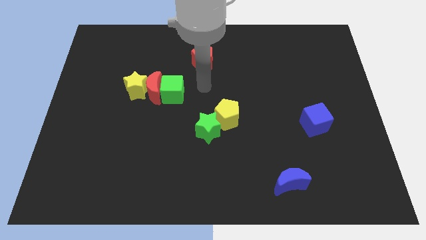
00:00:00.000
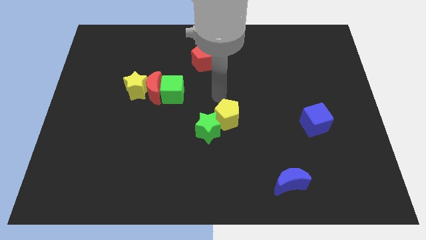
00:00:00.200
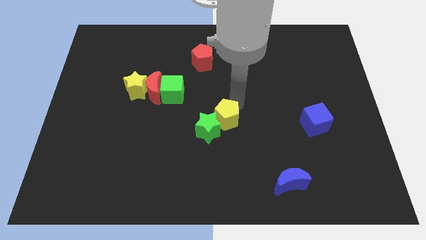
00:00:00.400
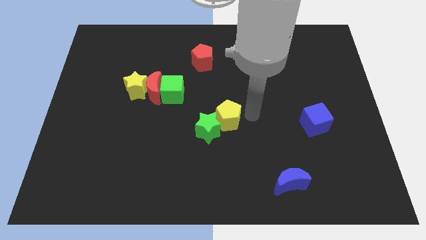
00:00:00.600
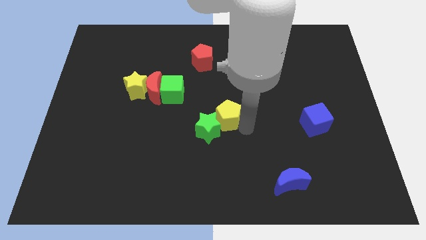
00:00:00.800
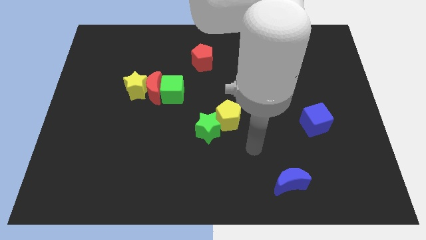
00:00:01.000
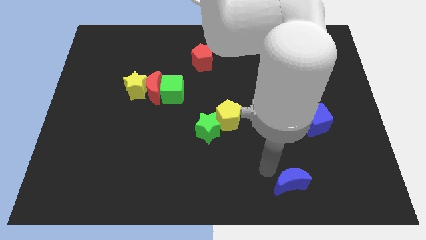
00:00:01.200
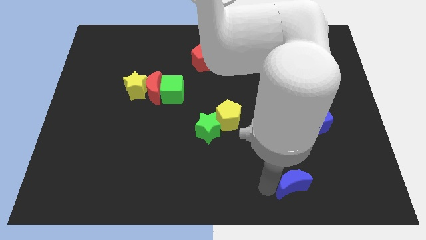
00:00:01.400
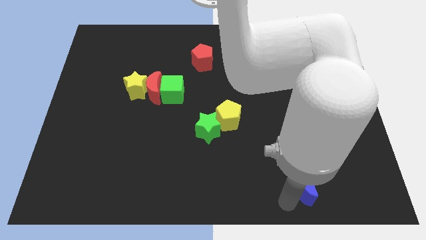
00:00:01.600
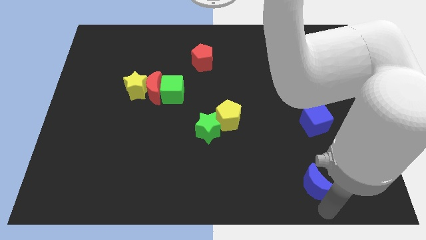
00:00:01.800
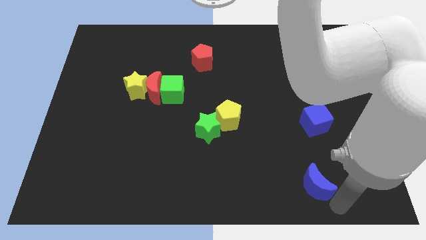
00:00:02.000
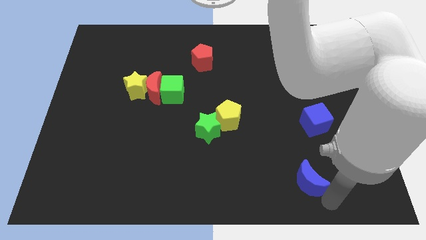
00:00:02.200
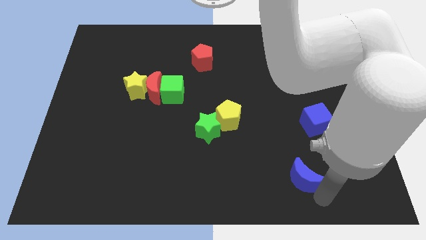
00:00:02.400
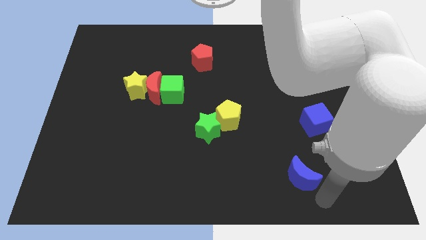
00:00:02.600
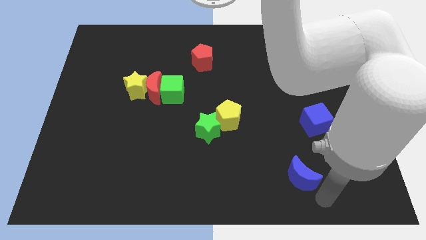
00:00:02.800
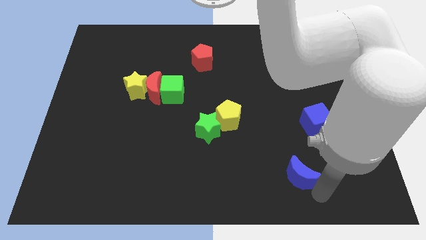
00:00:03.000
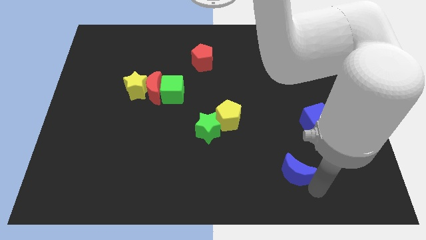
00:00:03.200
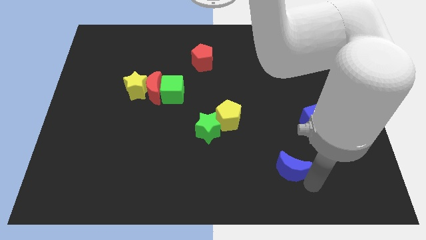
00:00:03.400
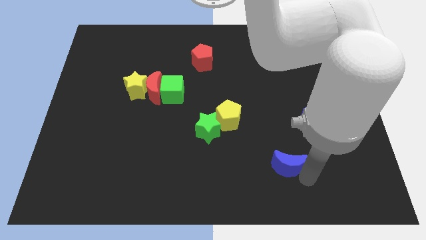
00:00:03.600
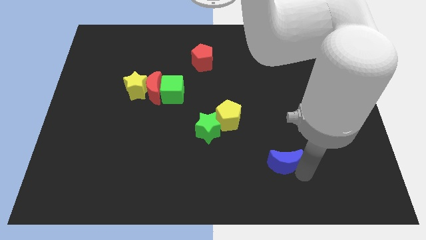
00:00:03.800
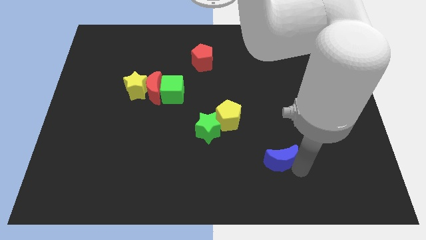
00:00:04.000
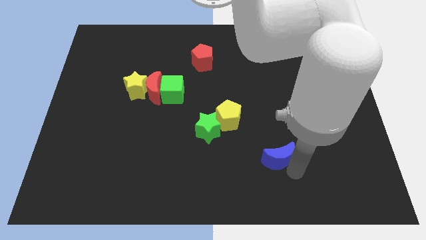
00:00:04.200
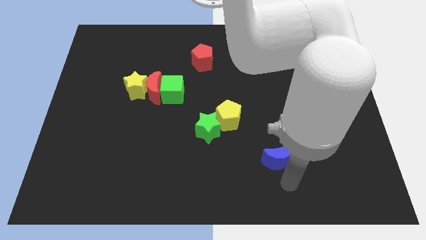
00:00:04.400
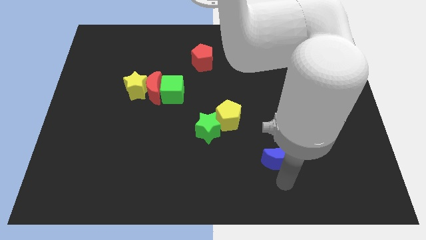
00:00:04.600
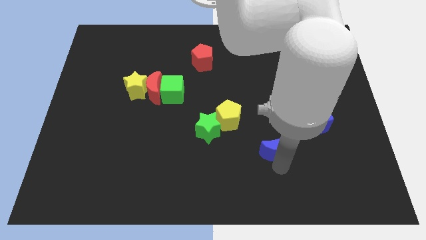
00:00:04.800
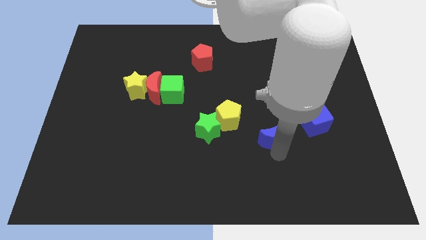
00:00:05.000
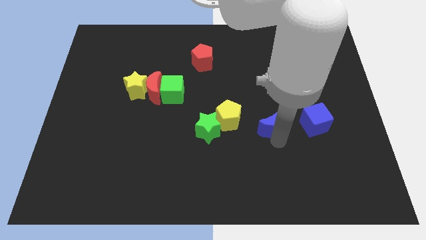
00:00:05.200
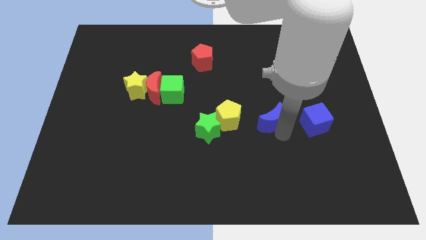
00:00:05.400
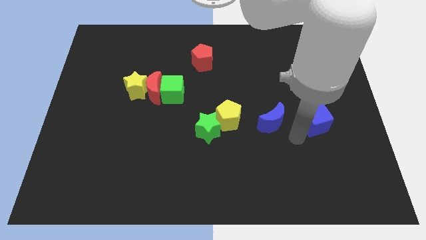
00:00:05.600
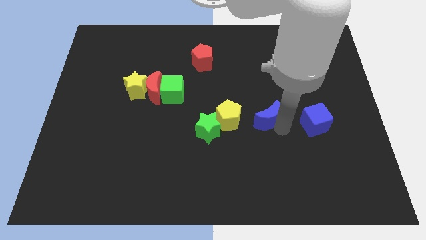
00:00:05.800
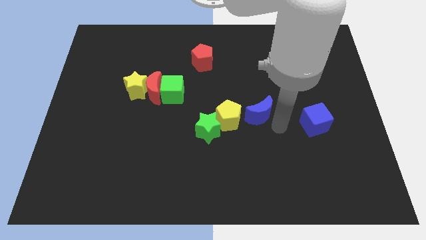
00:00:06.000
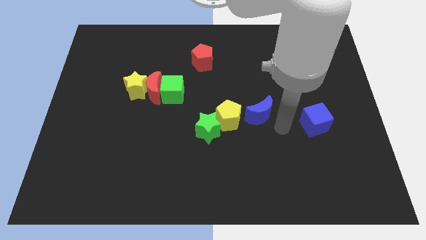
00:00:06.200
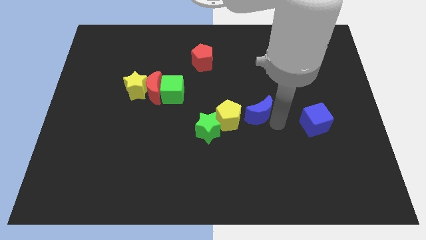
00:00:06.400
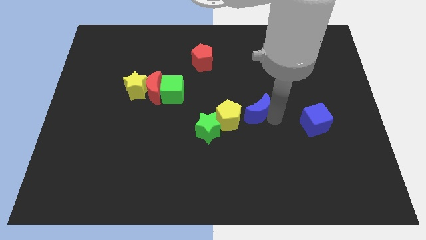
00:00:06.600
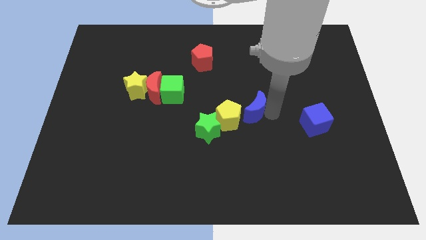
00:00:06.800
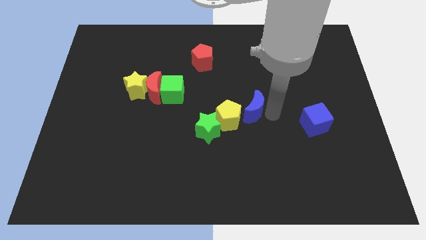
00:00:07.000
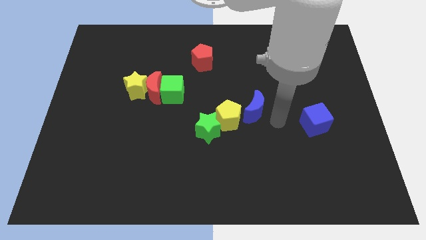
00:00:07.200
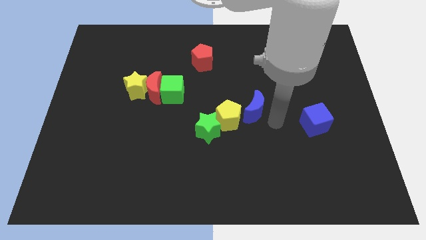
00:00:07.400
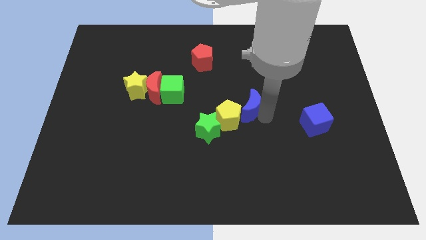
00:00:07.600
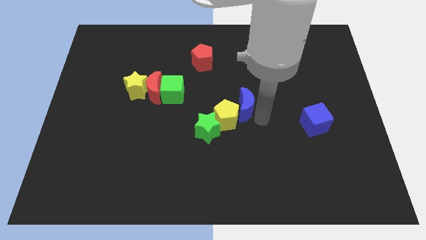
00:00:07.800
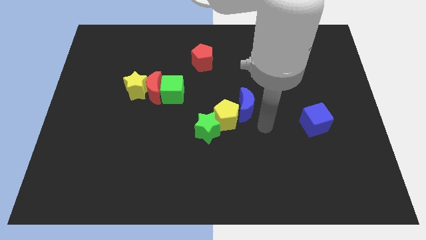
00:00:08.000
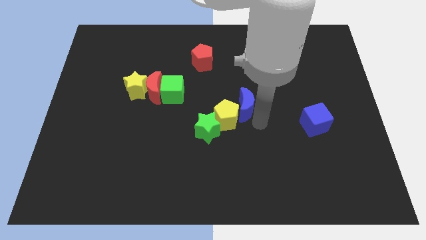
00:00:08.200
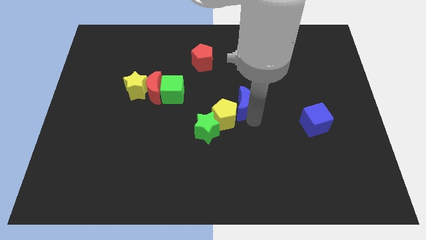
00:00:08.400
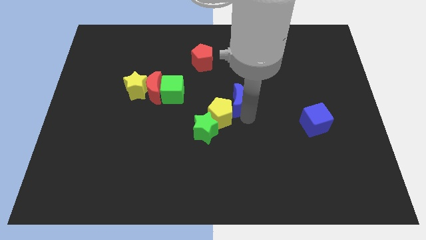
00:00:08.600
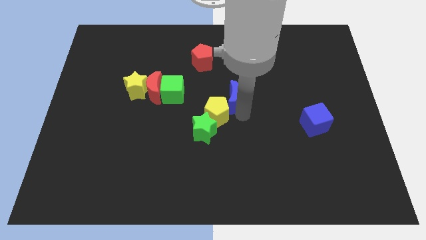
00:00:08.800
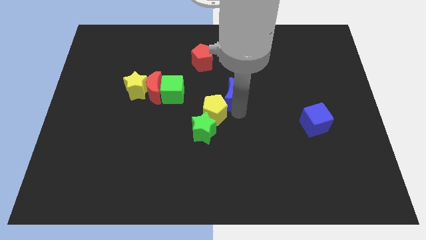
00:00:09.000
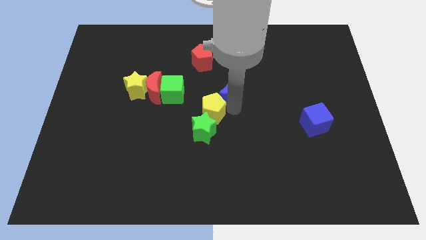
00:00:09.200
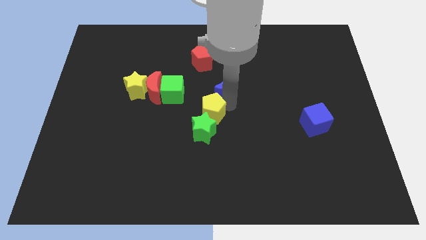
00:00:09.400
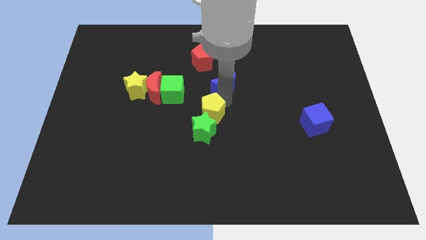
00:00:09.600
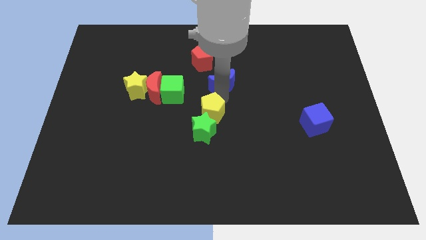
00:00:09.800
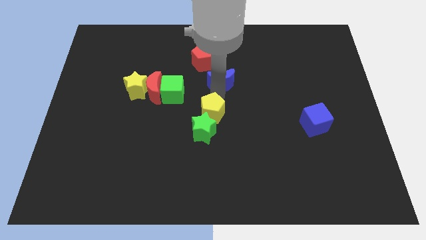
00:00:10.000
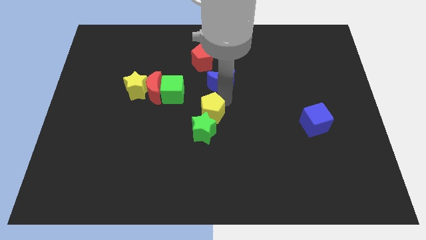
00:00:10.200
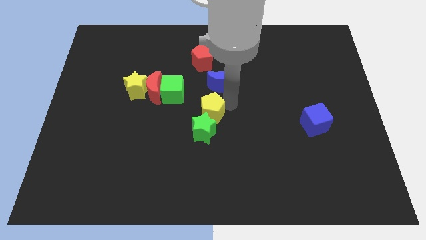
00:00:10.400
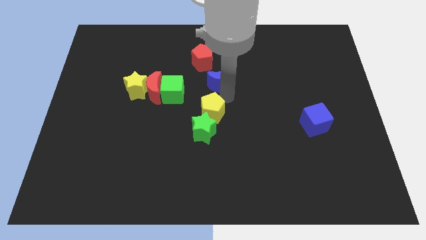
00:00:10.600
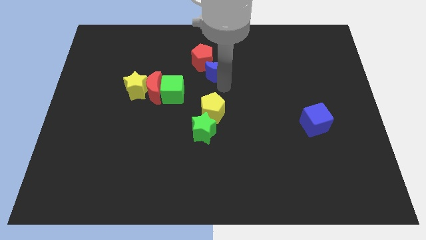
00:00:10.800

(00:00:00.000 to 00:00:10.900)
put the blue moon towards the red pentagon

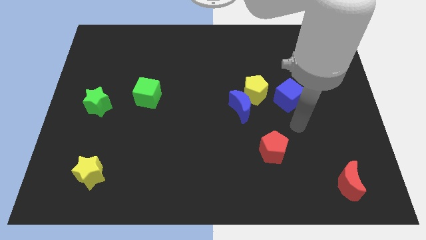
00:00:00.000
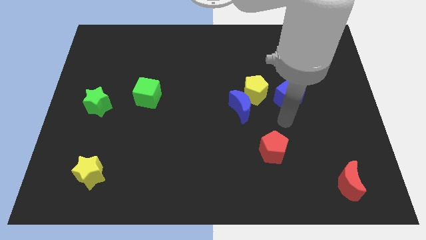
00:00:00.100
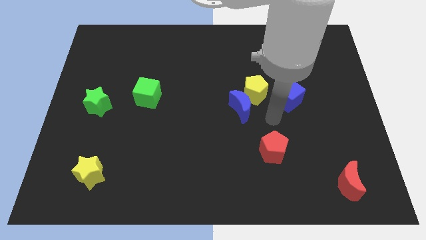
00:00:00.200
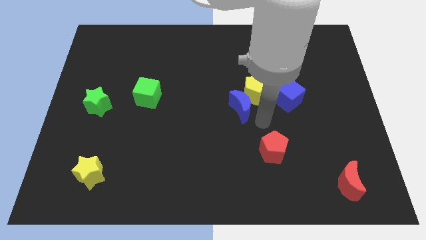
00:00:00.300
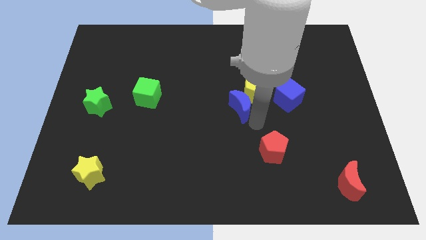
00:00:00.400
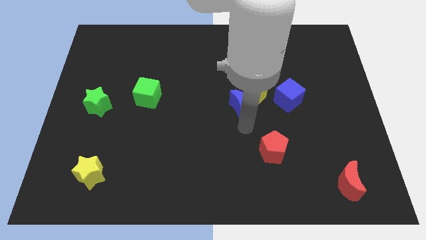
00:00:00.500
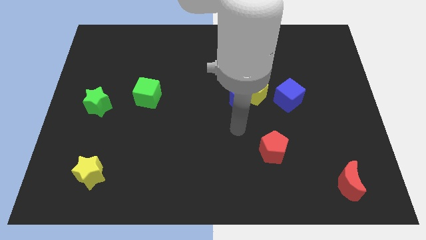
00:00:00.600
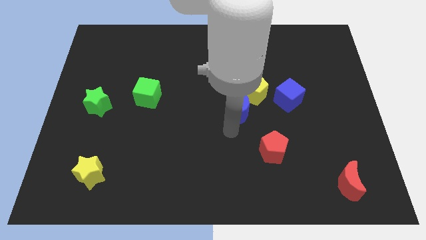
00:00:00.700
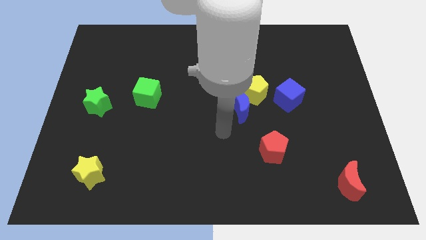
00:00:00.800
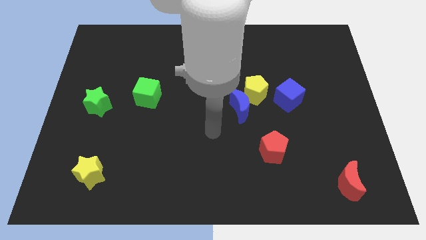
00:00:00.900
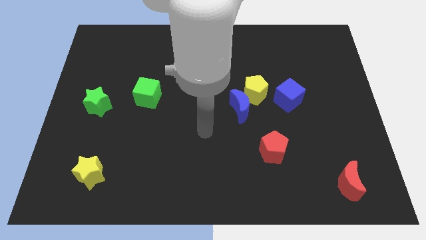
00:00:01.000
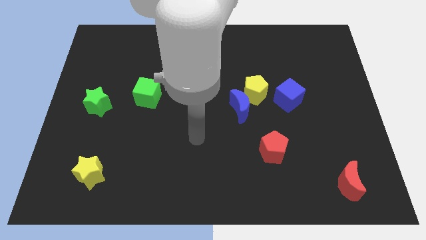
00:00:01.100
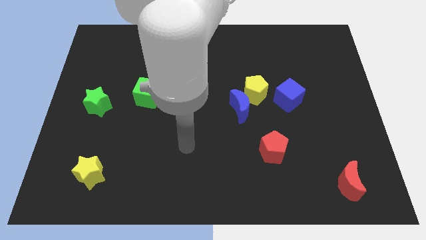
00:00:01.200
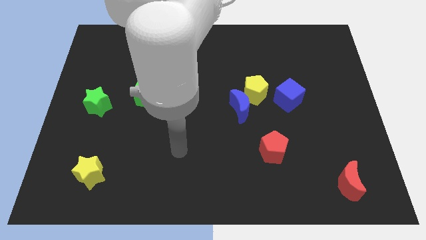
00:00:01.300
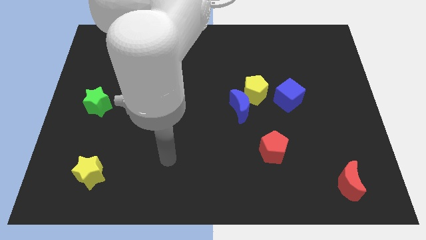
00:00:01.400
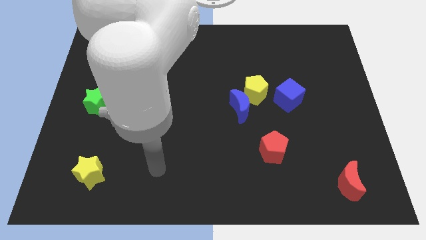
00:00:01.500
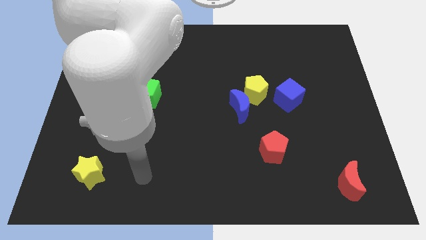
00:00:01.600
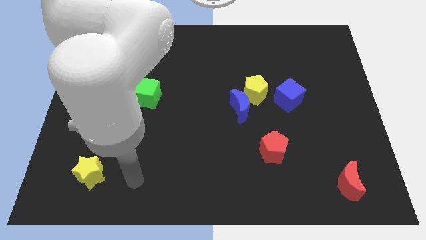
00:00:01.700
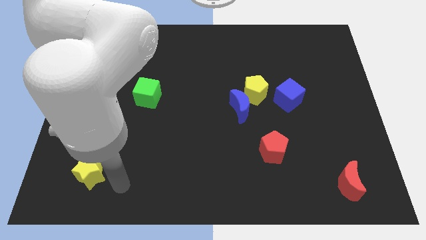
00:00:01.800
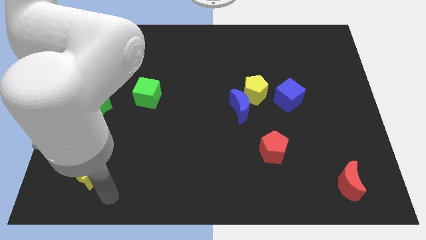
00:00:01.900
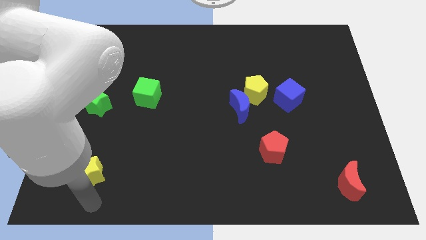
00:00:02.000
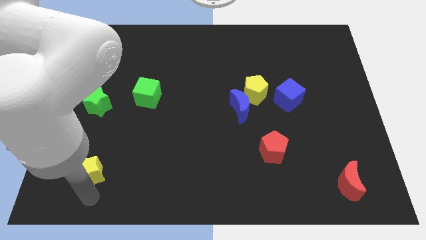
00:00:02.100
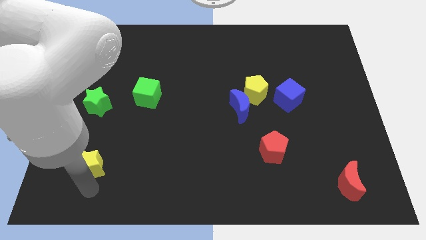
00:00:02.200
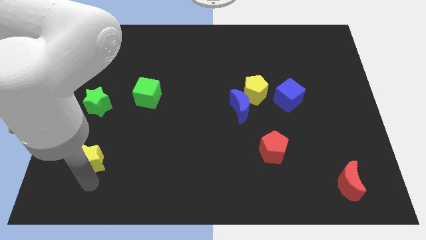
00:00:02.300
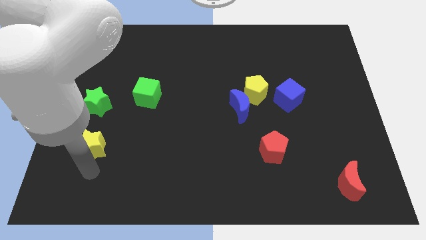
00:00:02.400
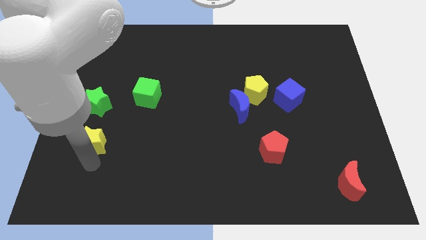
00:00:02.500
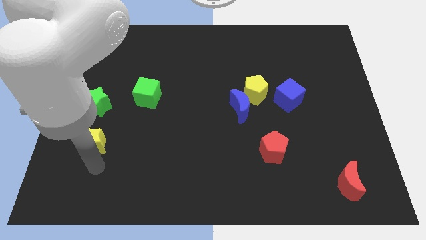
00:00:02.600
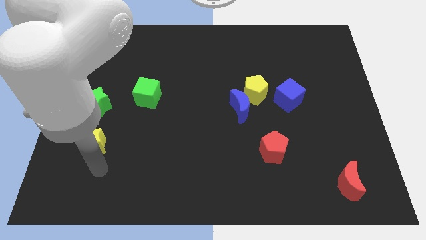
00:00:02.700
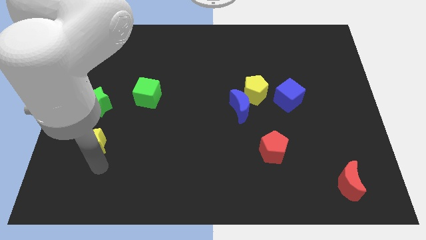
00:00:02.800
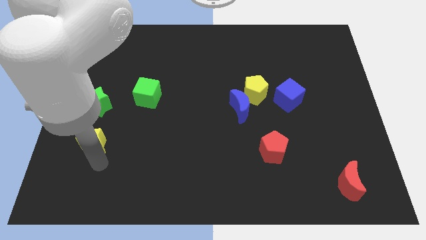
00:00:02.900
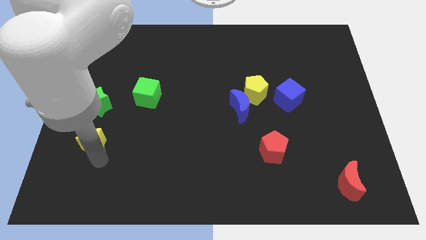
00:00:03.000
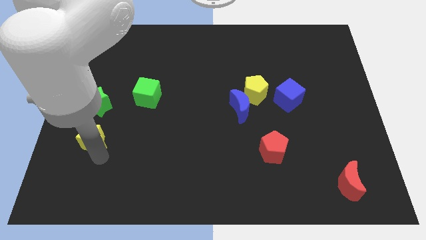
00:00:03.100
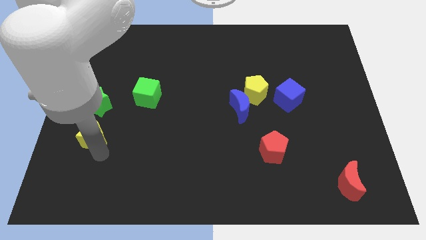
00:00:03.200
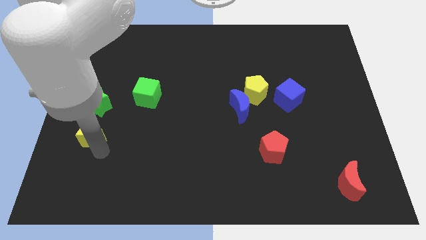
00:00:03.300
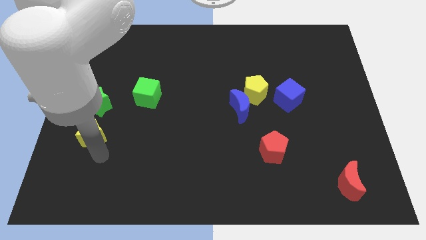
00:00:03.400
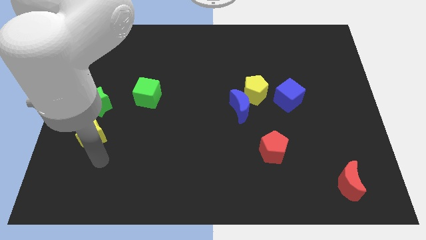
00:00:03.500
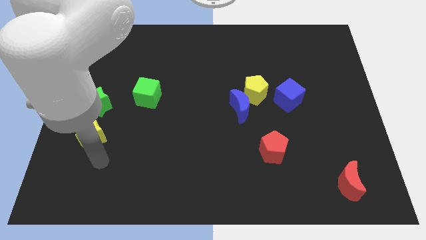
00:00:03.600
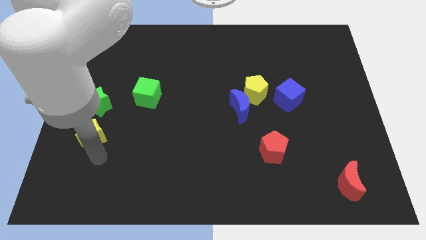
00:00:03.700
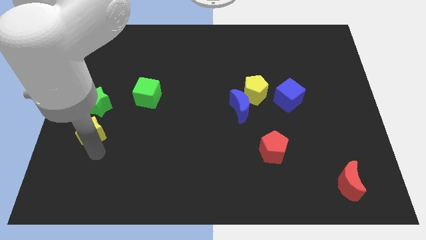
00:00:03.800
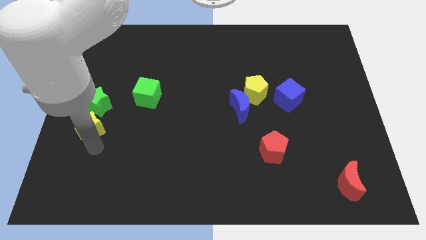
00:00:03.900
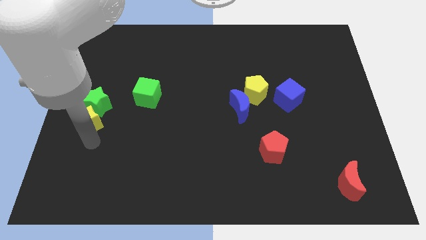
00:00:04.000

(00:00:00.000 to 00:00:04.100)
move the yellow star close to the green star
